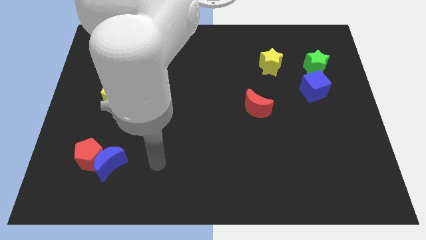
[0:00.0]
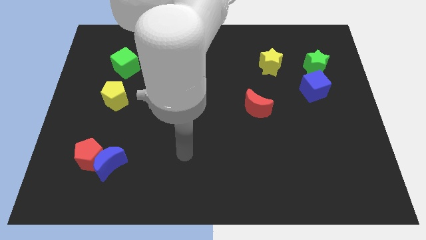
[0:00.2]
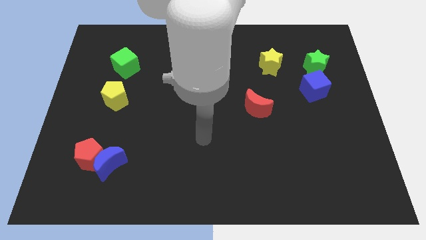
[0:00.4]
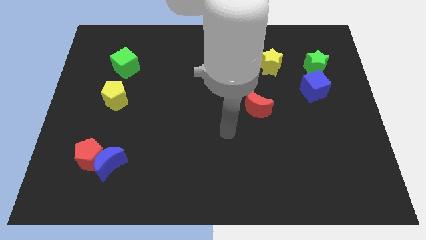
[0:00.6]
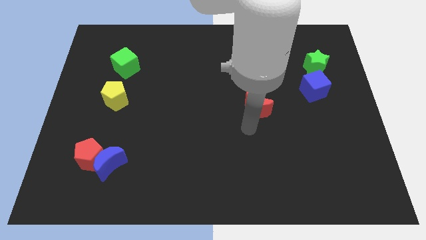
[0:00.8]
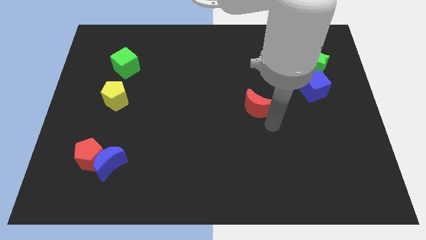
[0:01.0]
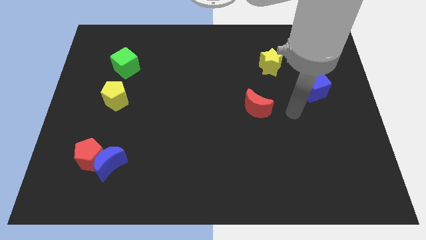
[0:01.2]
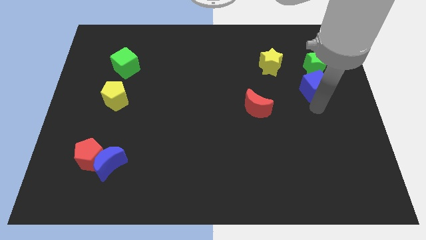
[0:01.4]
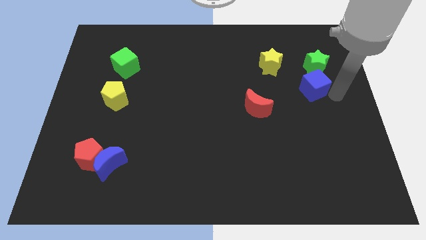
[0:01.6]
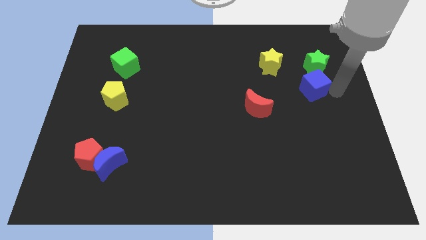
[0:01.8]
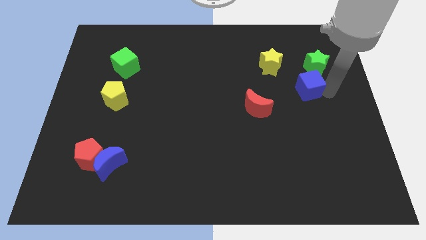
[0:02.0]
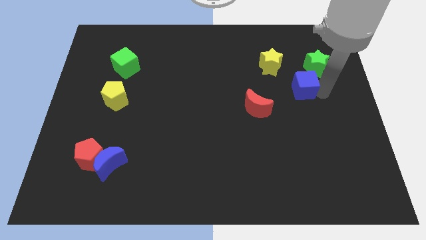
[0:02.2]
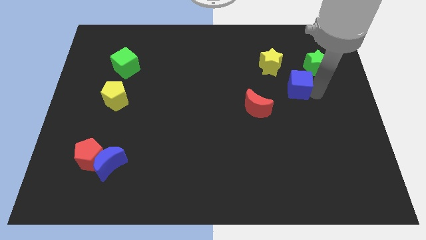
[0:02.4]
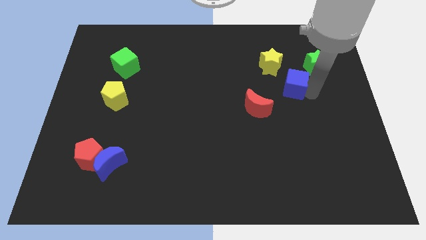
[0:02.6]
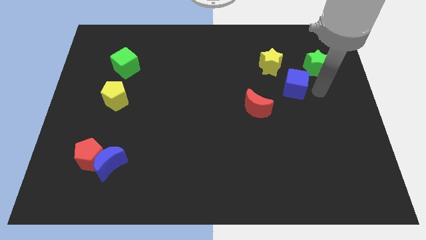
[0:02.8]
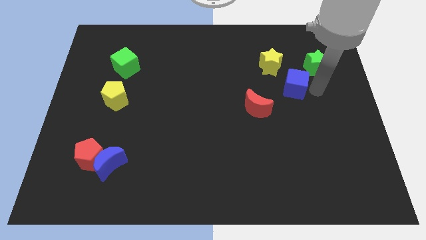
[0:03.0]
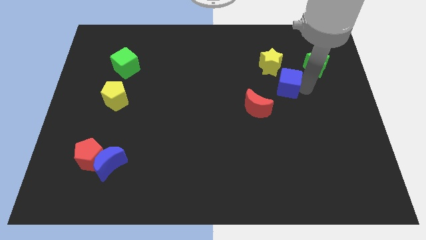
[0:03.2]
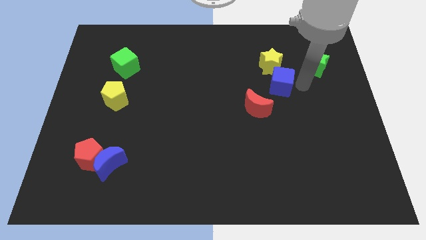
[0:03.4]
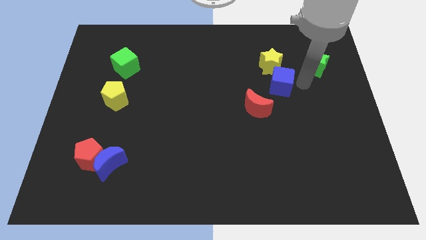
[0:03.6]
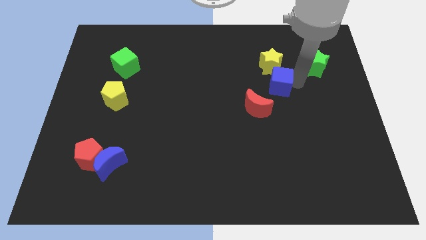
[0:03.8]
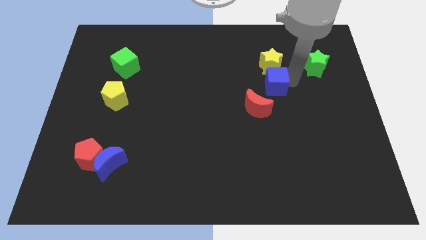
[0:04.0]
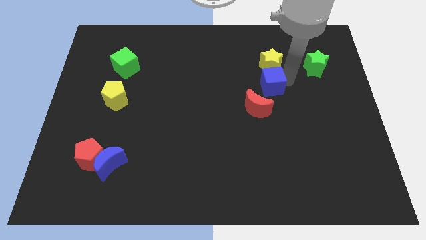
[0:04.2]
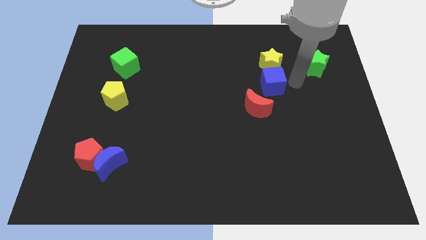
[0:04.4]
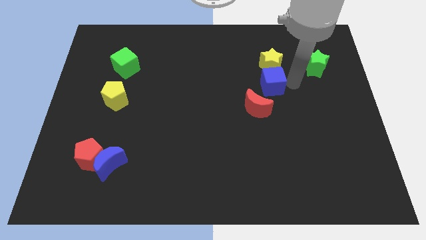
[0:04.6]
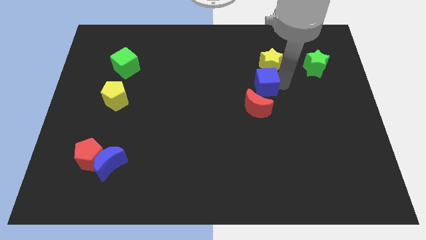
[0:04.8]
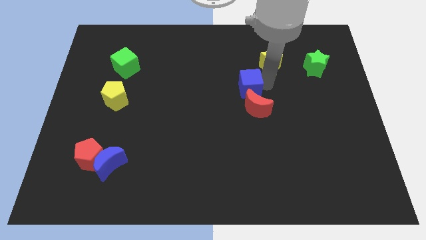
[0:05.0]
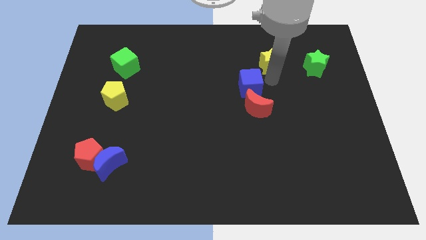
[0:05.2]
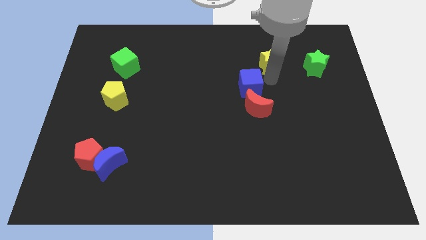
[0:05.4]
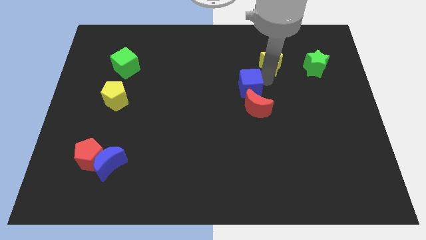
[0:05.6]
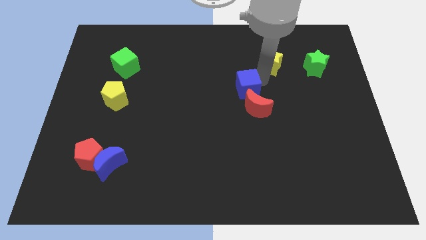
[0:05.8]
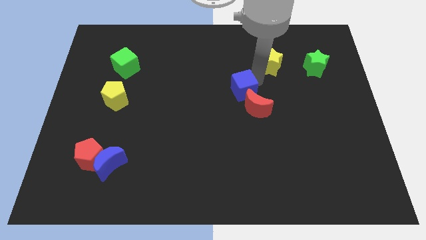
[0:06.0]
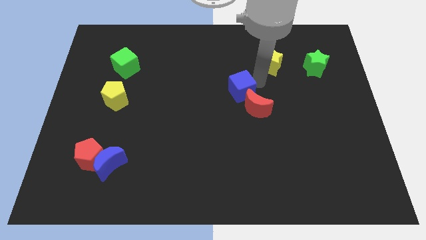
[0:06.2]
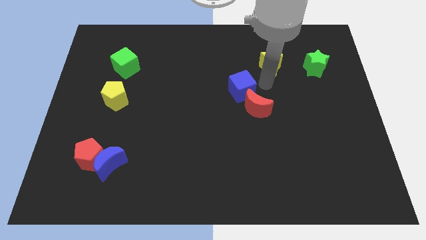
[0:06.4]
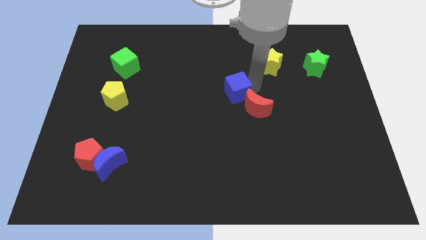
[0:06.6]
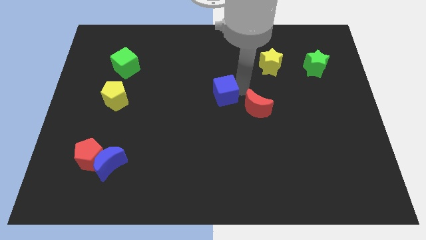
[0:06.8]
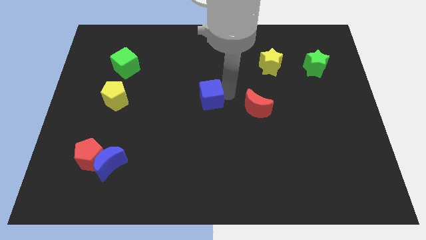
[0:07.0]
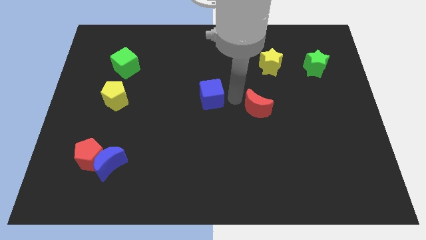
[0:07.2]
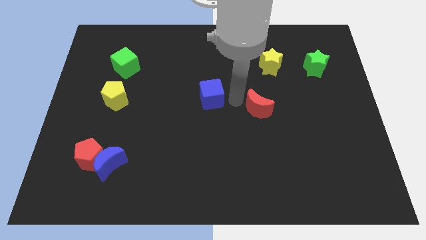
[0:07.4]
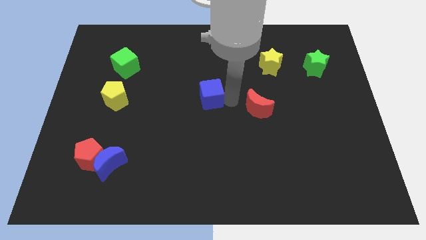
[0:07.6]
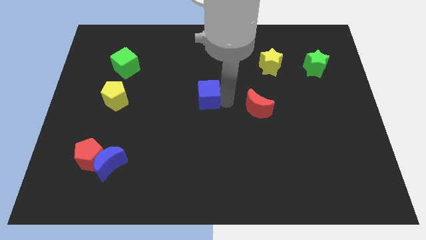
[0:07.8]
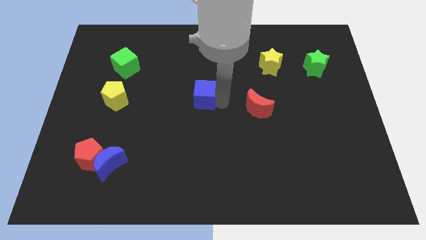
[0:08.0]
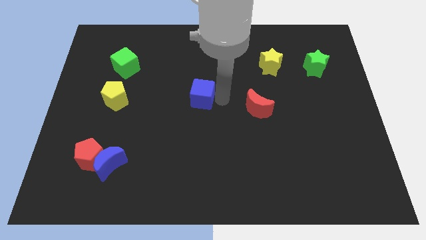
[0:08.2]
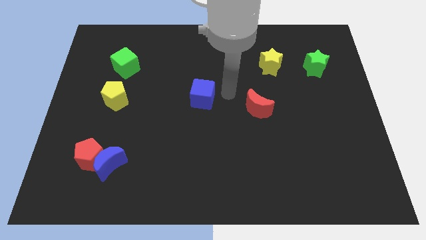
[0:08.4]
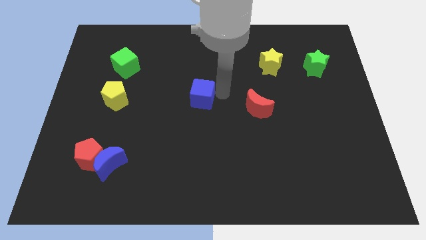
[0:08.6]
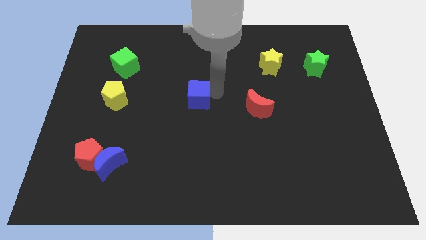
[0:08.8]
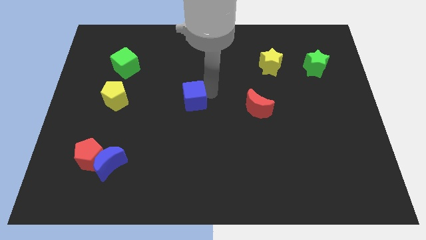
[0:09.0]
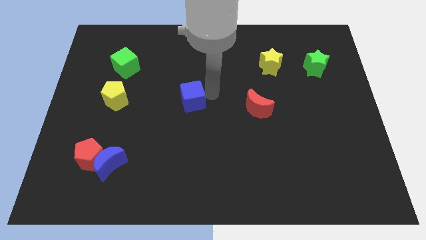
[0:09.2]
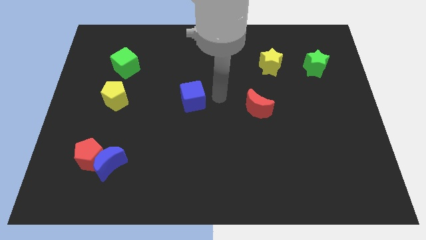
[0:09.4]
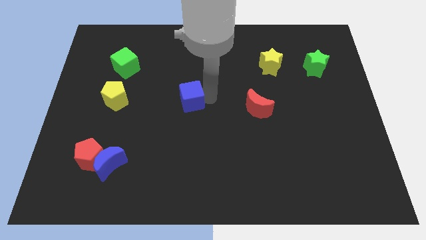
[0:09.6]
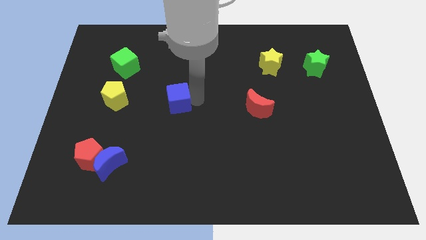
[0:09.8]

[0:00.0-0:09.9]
put the blue cube to the right of the yellow pentagon

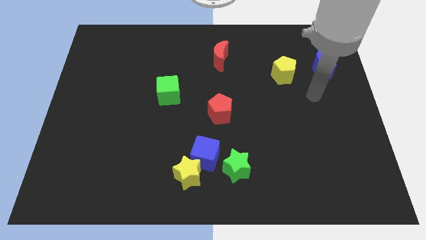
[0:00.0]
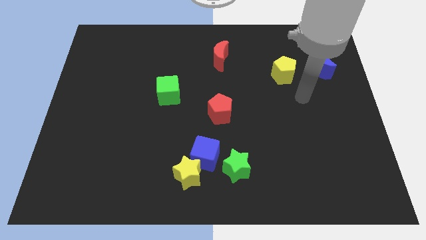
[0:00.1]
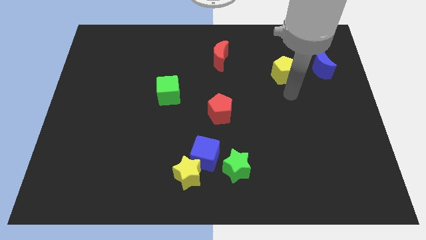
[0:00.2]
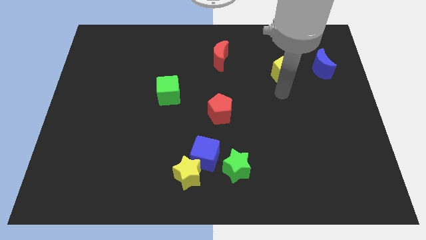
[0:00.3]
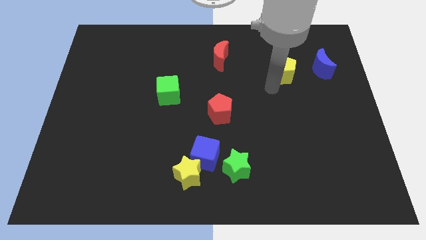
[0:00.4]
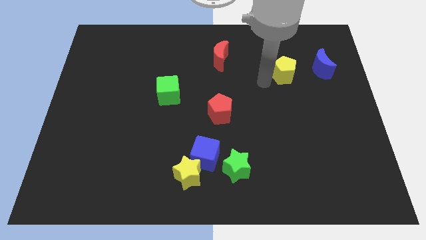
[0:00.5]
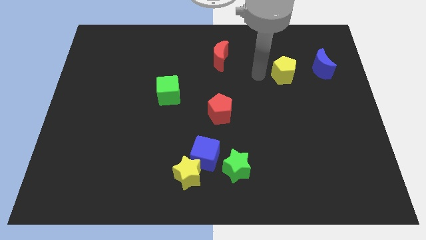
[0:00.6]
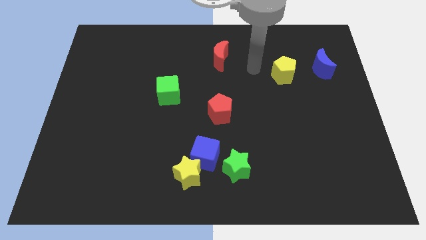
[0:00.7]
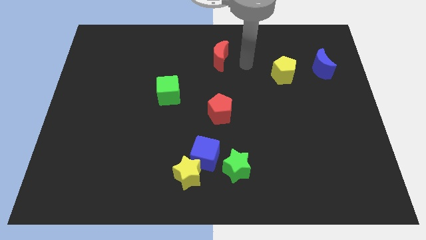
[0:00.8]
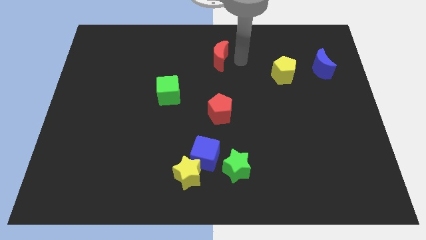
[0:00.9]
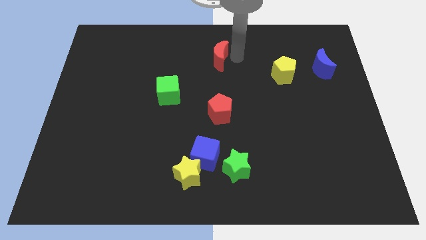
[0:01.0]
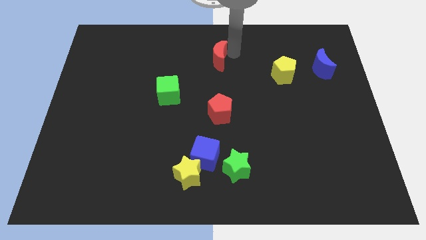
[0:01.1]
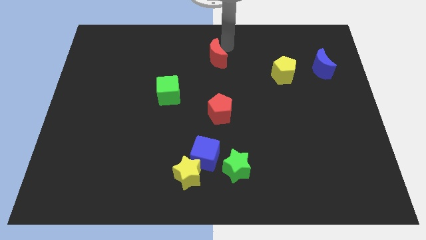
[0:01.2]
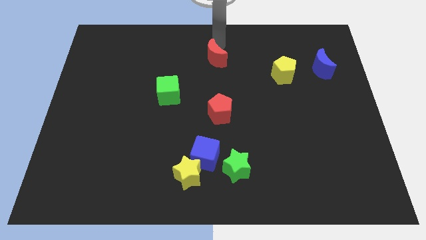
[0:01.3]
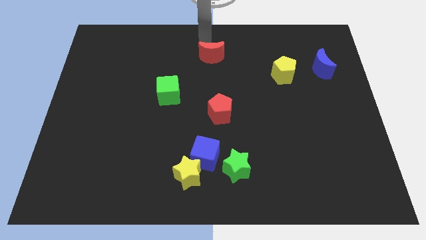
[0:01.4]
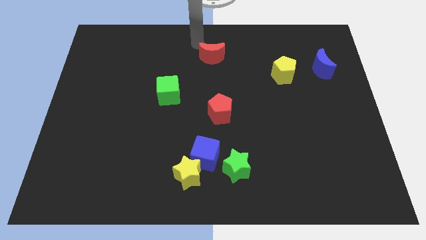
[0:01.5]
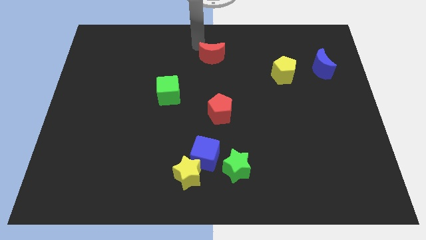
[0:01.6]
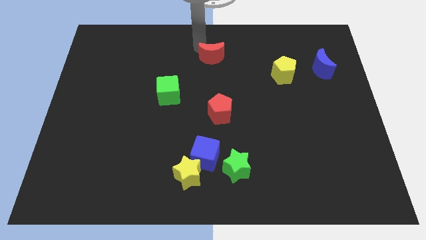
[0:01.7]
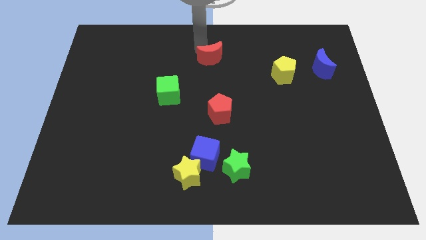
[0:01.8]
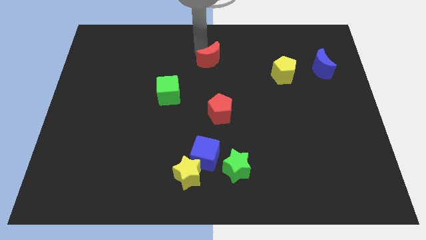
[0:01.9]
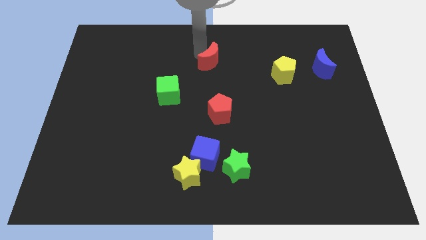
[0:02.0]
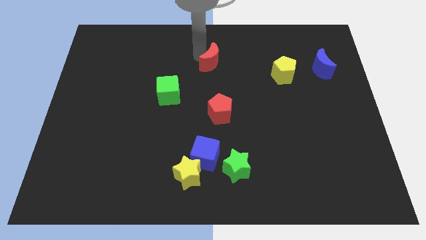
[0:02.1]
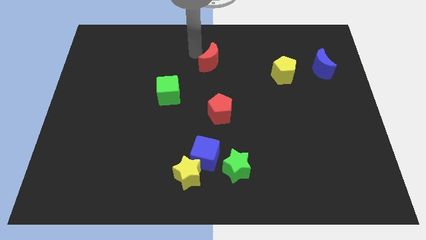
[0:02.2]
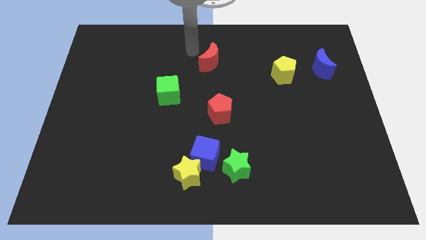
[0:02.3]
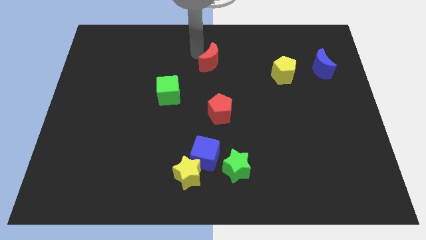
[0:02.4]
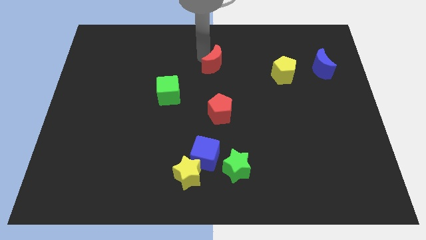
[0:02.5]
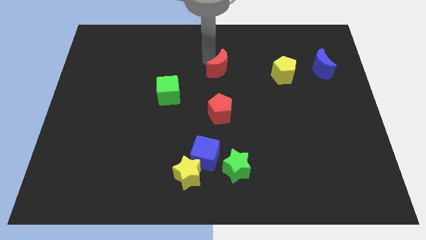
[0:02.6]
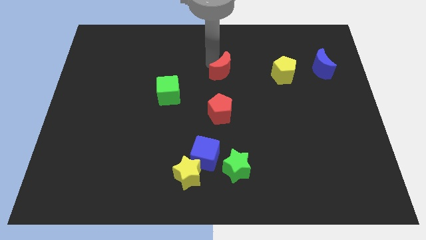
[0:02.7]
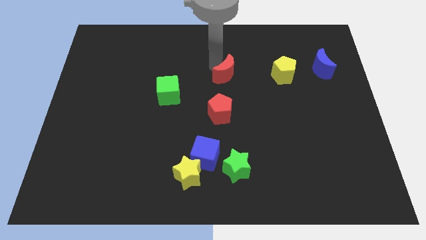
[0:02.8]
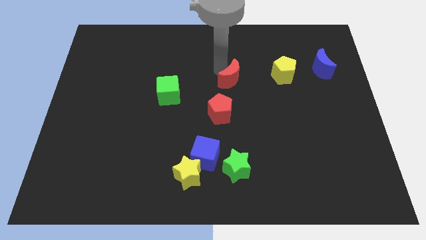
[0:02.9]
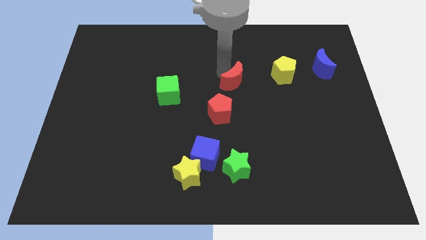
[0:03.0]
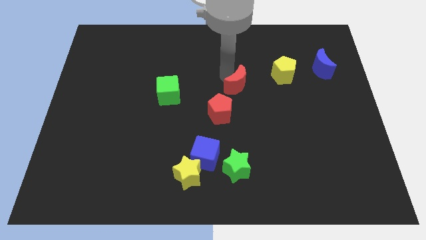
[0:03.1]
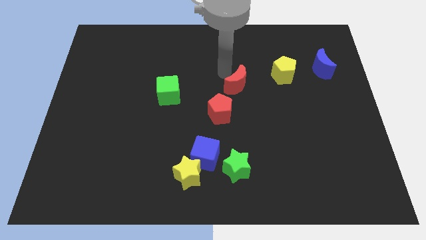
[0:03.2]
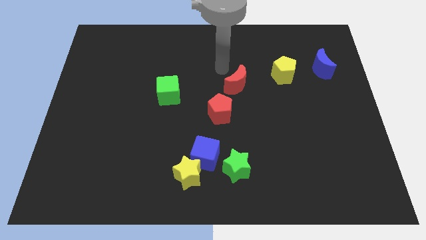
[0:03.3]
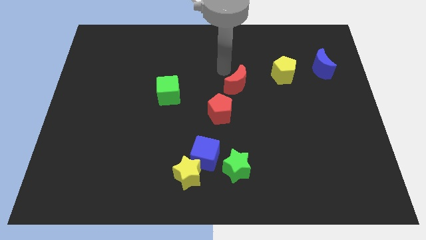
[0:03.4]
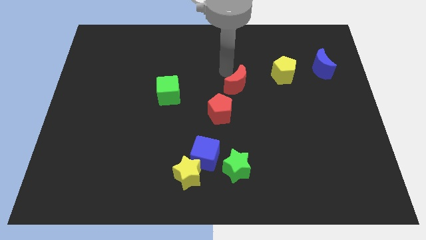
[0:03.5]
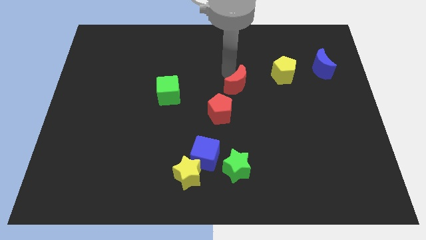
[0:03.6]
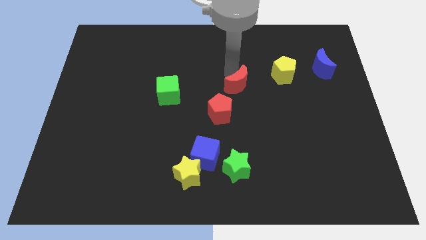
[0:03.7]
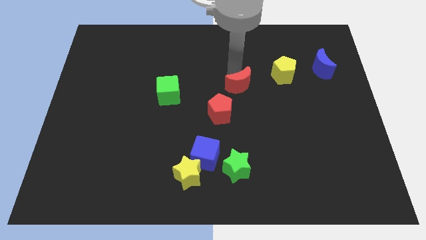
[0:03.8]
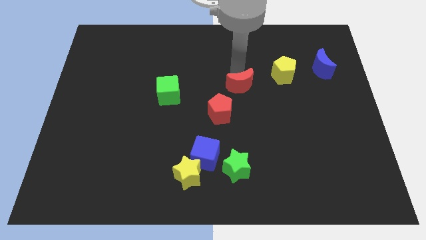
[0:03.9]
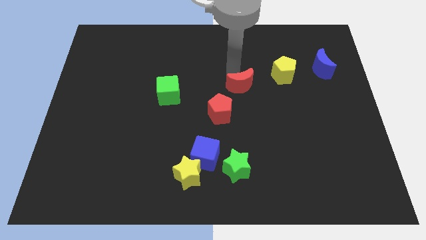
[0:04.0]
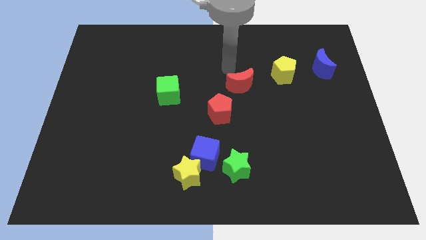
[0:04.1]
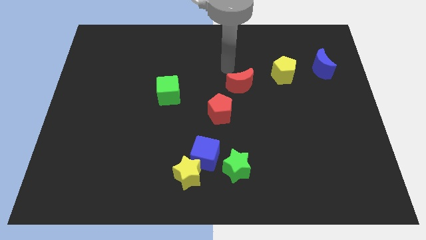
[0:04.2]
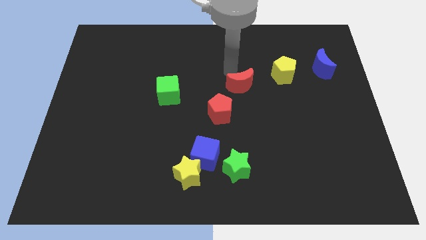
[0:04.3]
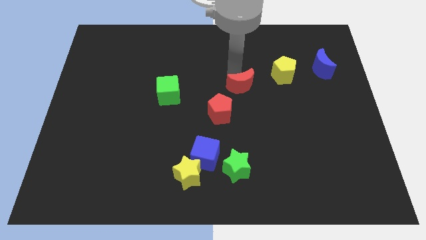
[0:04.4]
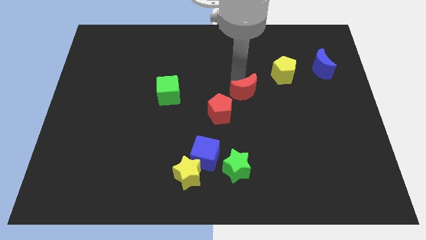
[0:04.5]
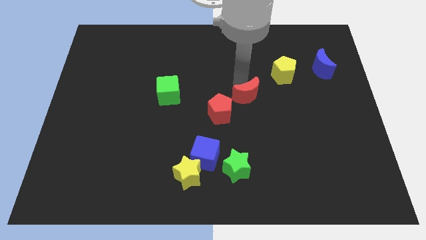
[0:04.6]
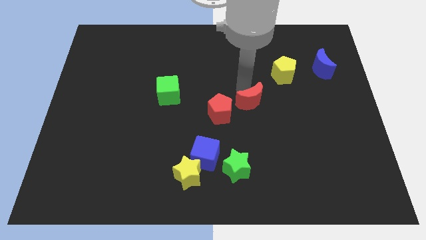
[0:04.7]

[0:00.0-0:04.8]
push the red moon right of the red pentagon
